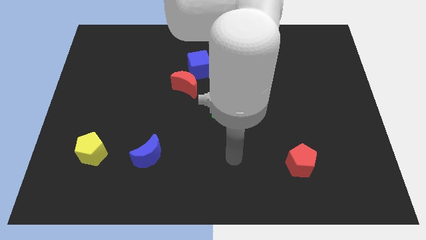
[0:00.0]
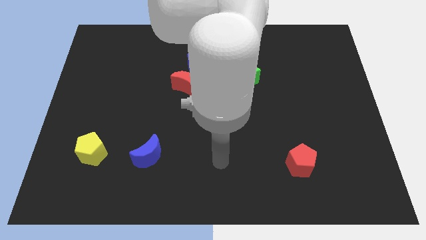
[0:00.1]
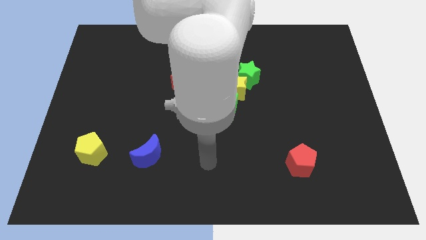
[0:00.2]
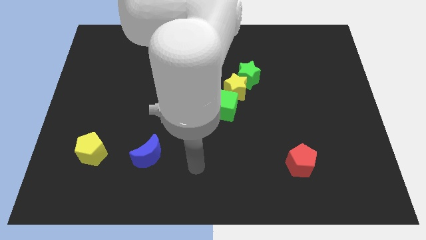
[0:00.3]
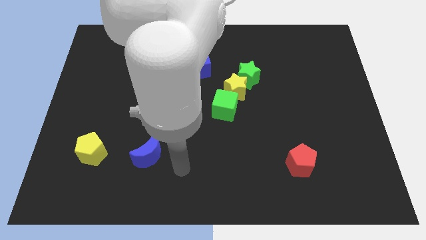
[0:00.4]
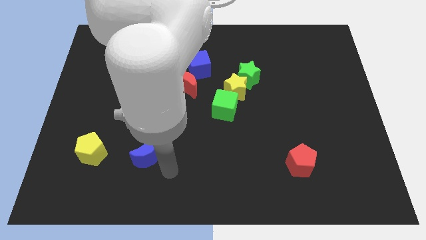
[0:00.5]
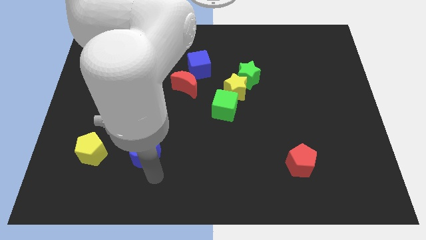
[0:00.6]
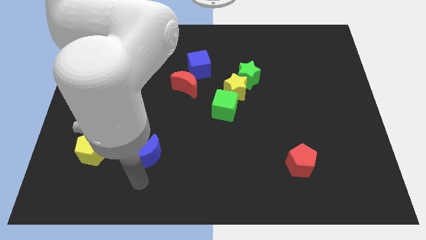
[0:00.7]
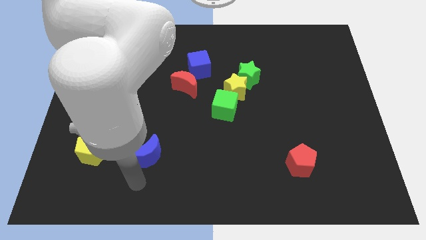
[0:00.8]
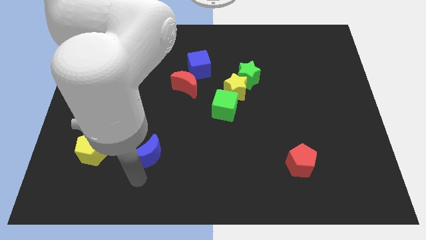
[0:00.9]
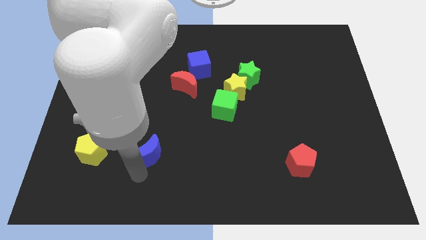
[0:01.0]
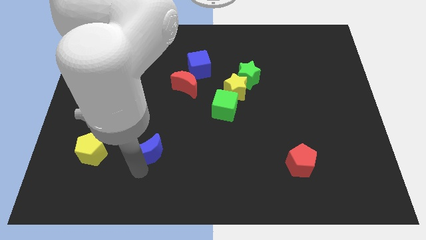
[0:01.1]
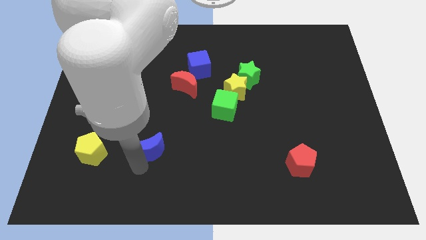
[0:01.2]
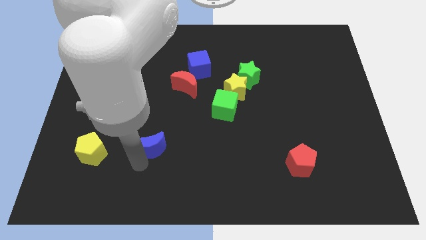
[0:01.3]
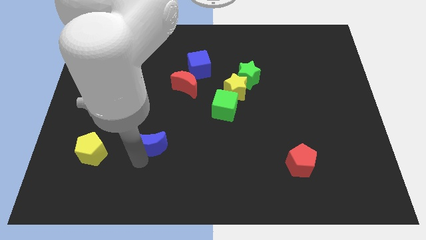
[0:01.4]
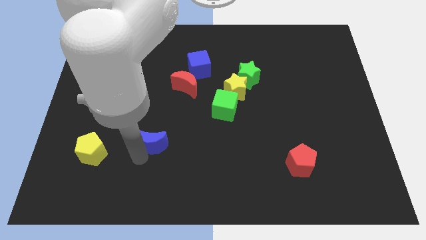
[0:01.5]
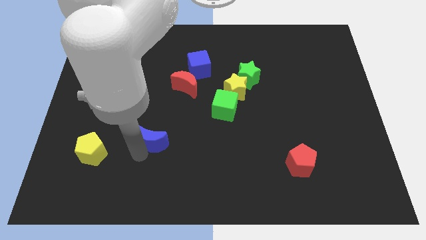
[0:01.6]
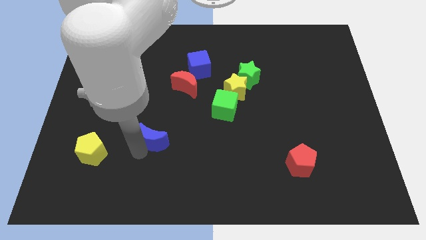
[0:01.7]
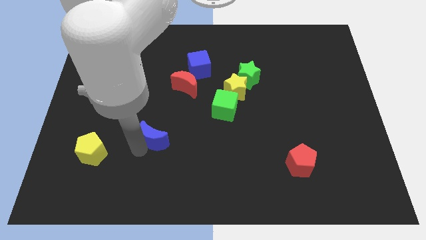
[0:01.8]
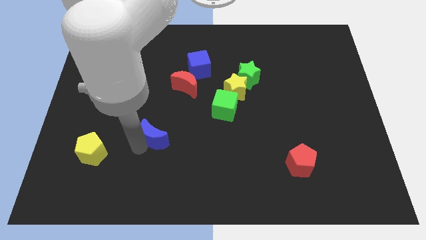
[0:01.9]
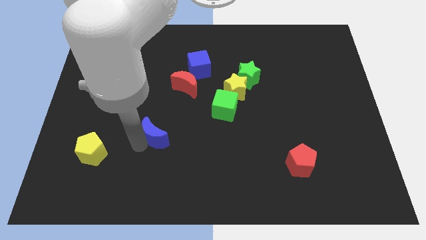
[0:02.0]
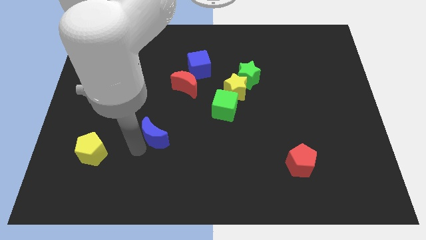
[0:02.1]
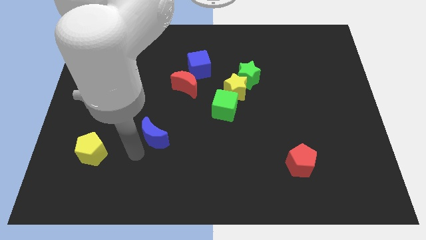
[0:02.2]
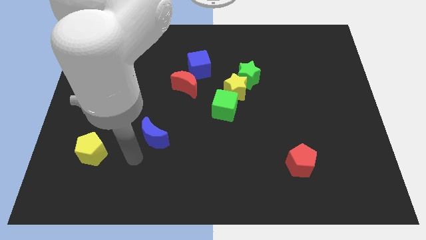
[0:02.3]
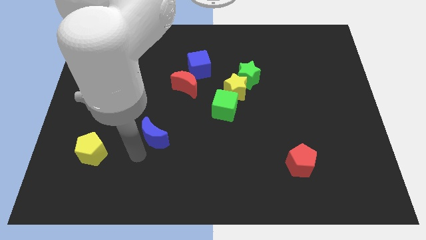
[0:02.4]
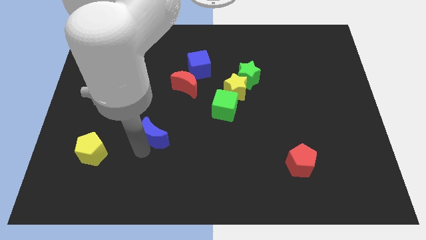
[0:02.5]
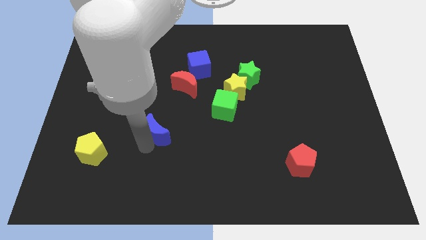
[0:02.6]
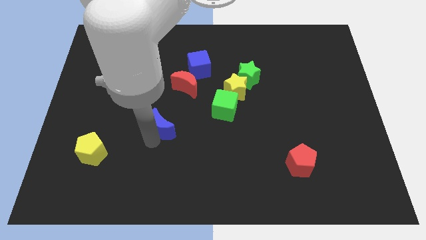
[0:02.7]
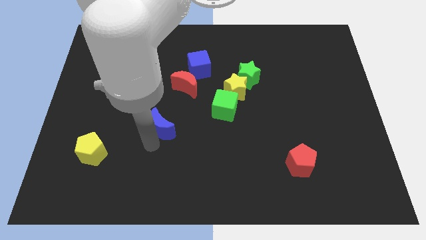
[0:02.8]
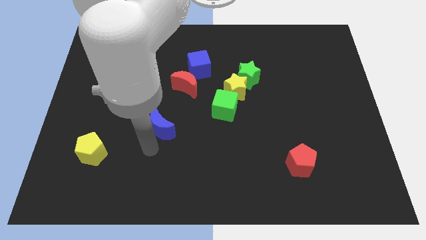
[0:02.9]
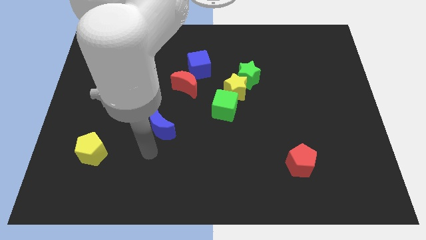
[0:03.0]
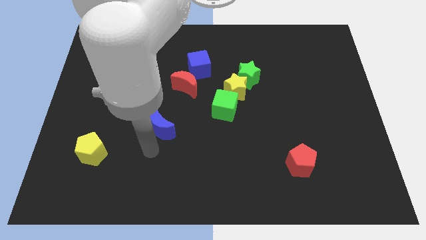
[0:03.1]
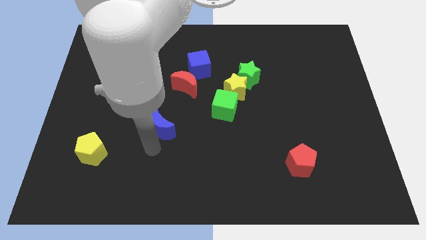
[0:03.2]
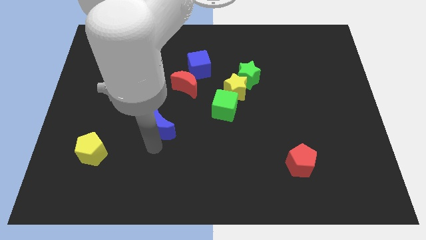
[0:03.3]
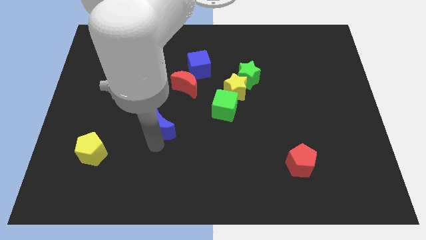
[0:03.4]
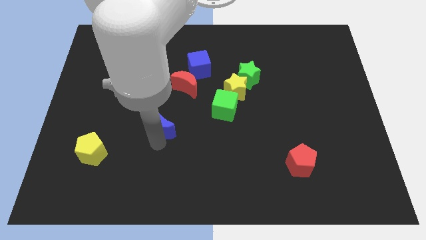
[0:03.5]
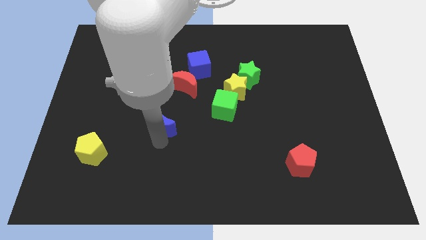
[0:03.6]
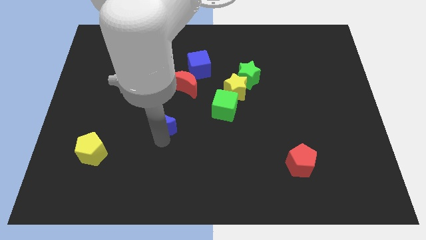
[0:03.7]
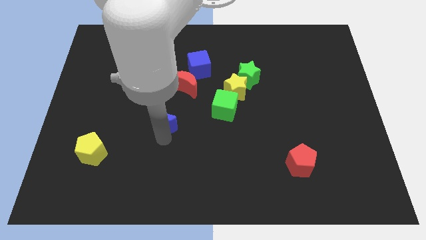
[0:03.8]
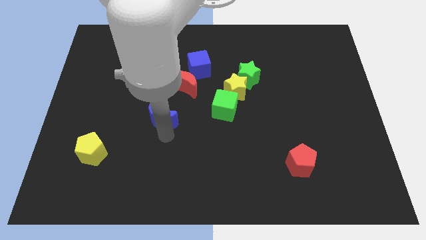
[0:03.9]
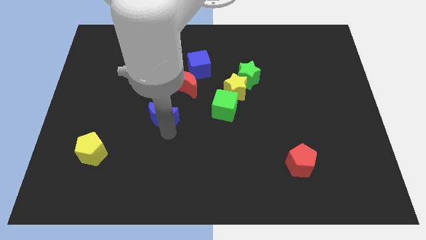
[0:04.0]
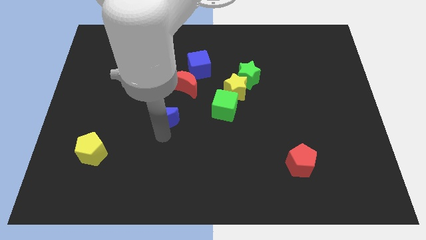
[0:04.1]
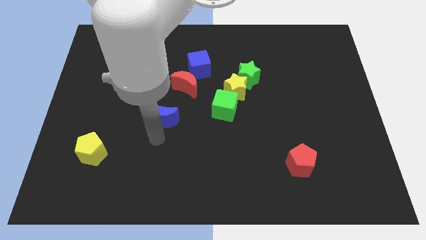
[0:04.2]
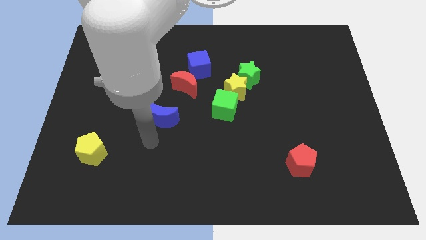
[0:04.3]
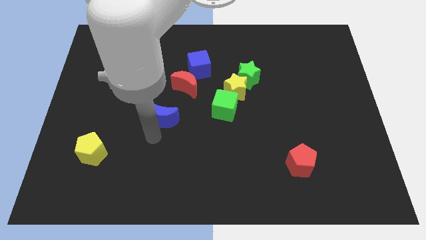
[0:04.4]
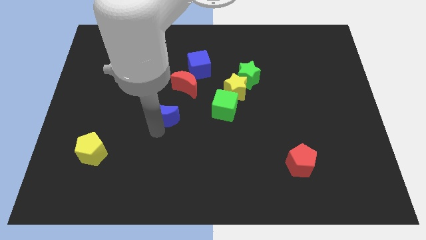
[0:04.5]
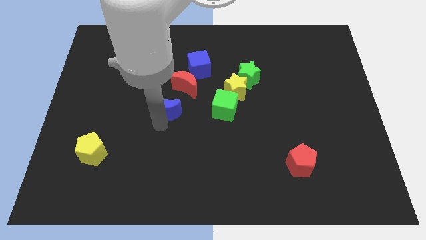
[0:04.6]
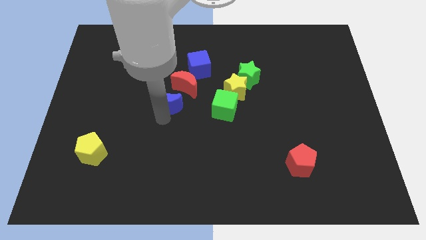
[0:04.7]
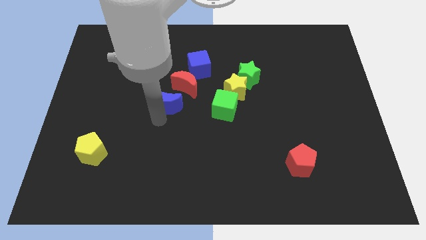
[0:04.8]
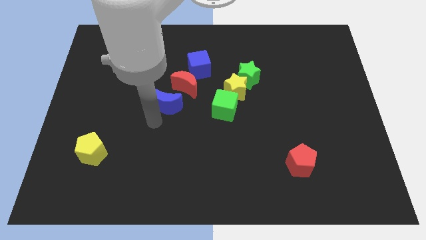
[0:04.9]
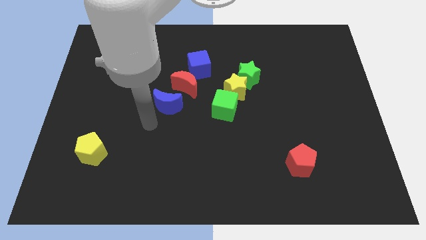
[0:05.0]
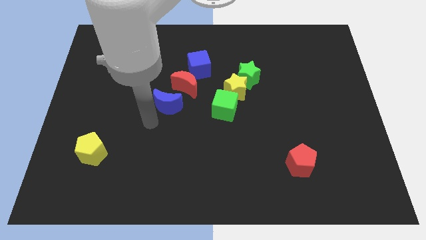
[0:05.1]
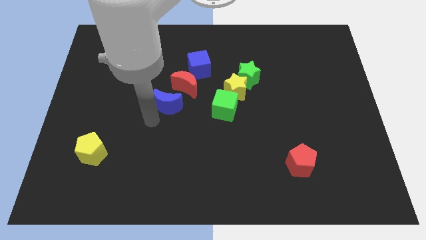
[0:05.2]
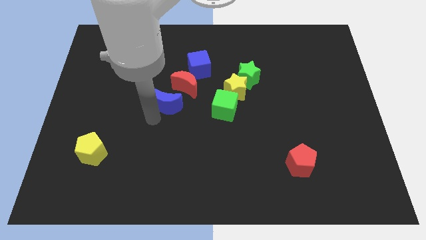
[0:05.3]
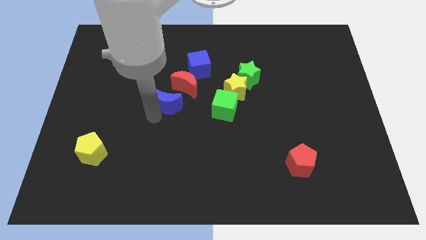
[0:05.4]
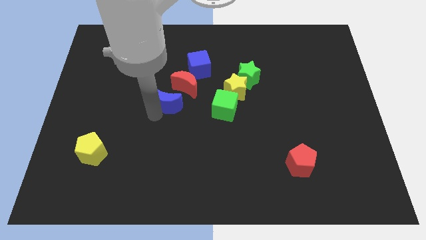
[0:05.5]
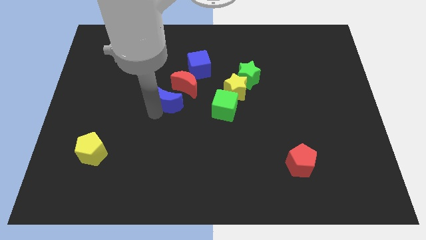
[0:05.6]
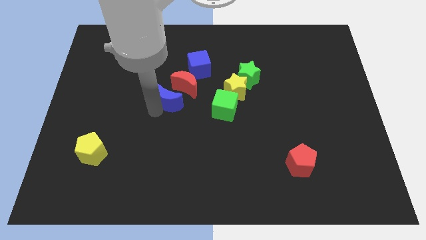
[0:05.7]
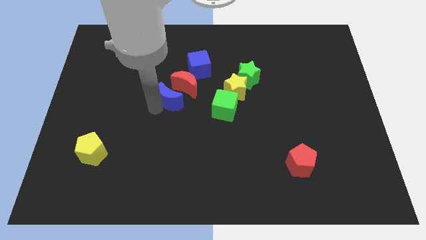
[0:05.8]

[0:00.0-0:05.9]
put the blue moon towards the red moon

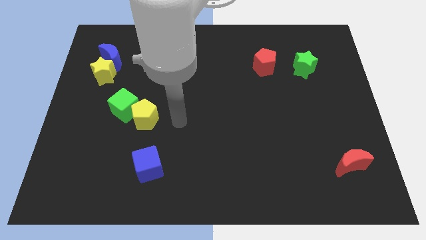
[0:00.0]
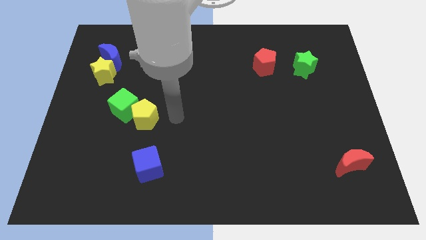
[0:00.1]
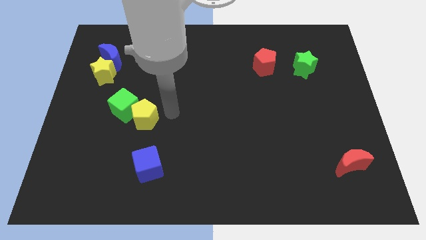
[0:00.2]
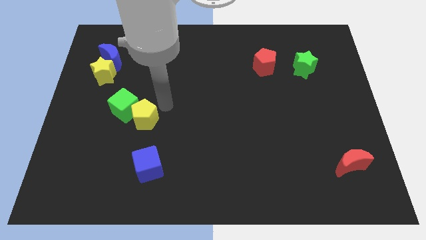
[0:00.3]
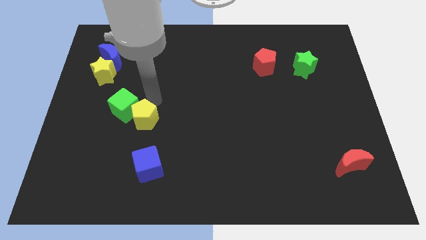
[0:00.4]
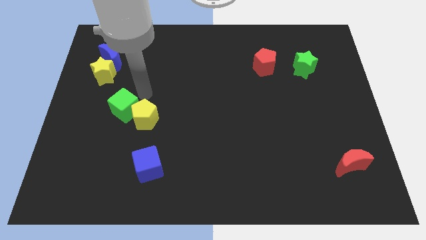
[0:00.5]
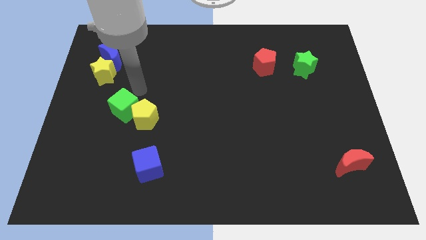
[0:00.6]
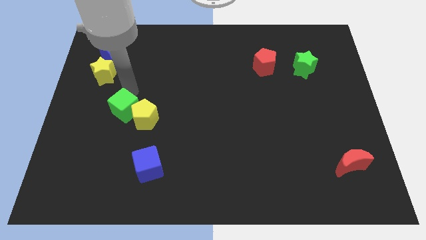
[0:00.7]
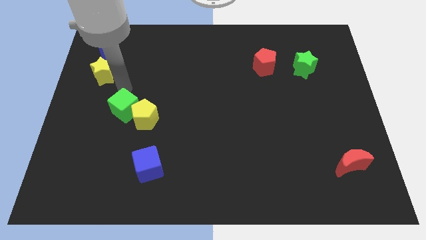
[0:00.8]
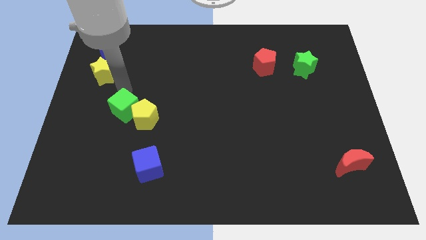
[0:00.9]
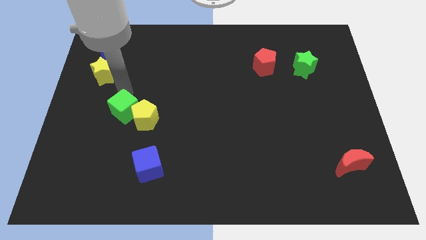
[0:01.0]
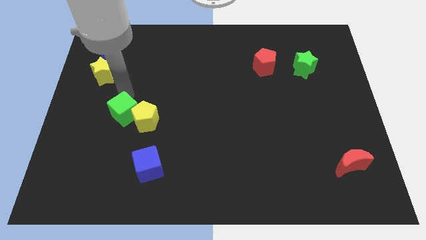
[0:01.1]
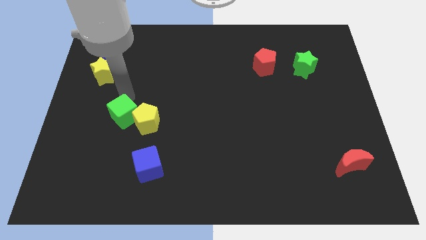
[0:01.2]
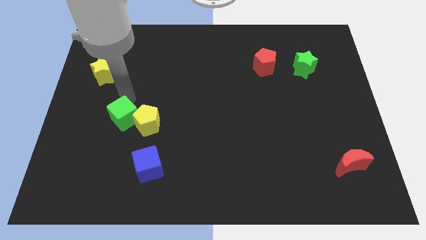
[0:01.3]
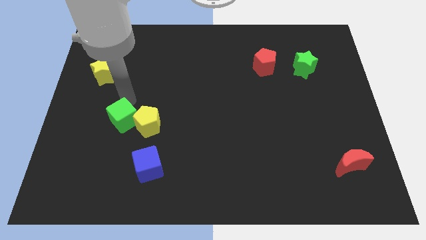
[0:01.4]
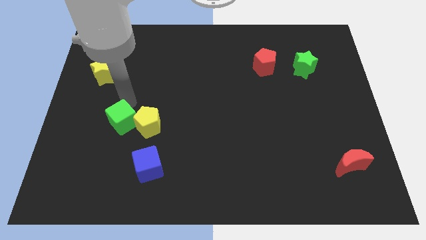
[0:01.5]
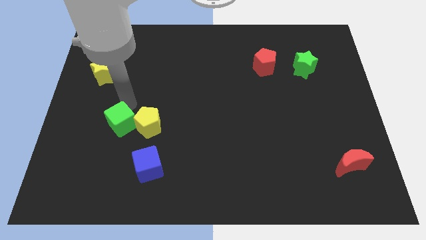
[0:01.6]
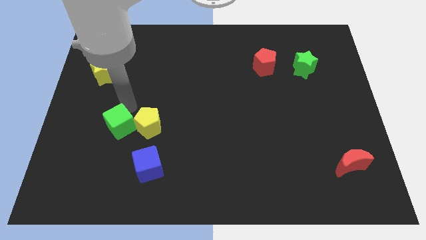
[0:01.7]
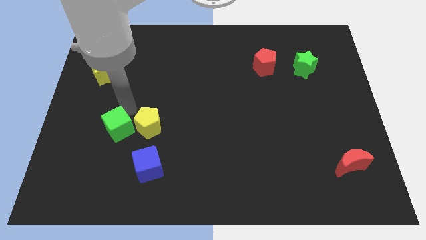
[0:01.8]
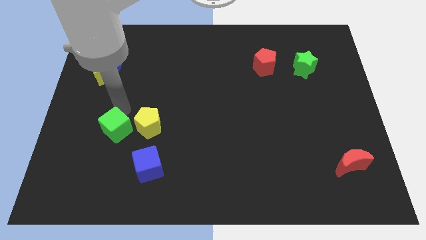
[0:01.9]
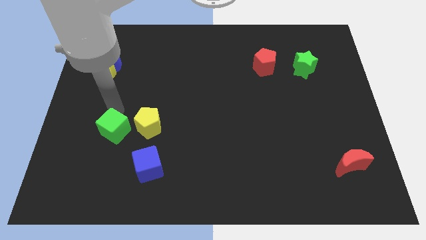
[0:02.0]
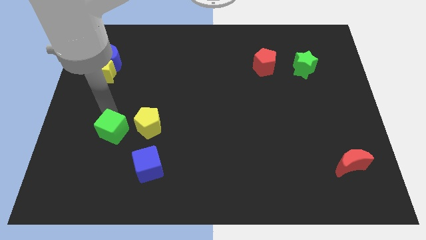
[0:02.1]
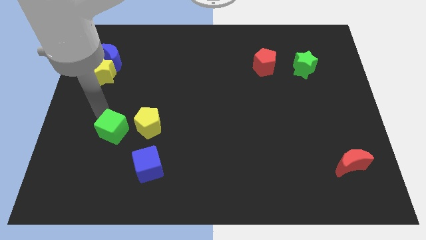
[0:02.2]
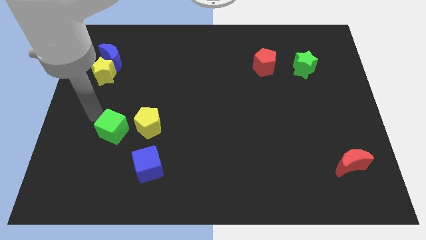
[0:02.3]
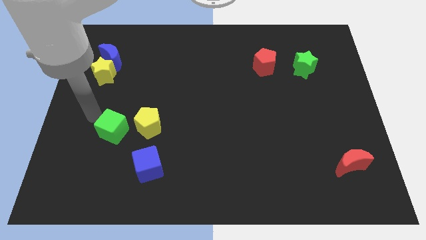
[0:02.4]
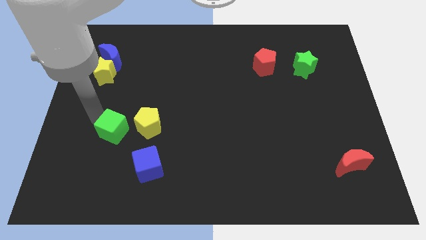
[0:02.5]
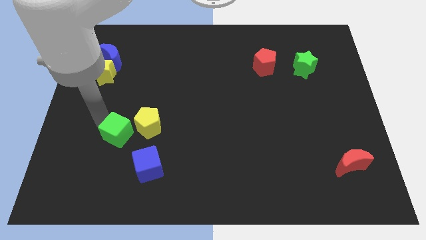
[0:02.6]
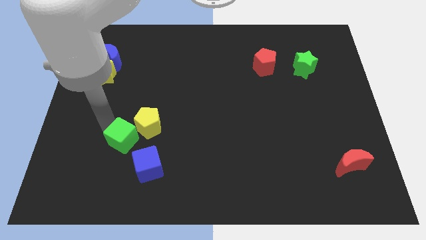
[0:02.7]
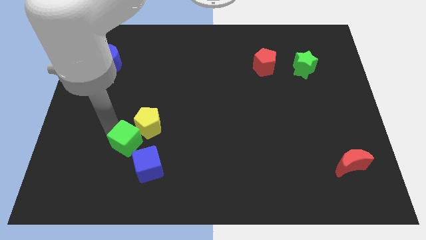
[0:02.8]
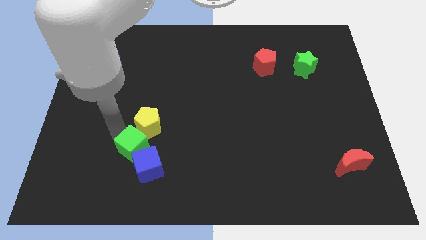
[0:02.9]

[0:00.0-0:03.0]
put the green cube towards the blue cube
